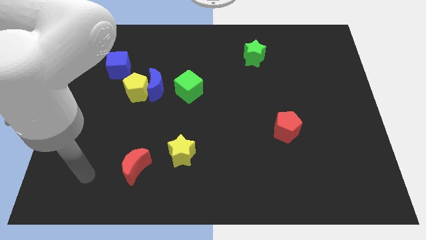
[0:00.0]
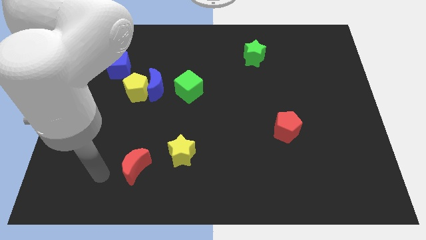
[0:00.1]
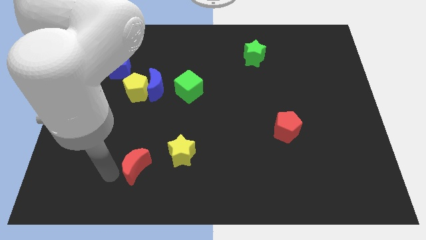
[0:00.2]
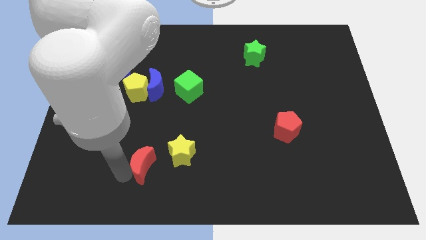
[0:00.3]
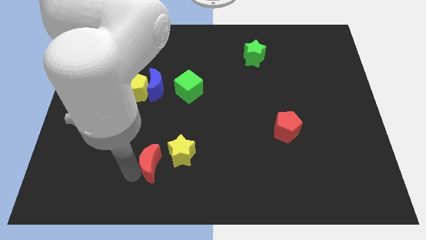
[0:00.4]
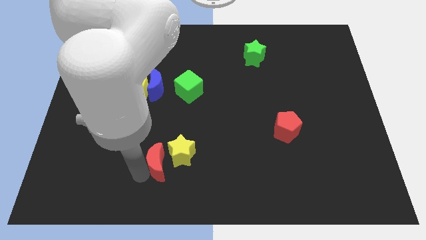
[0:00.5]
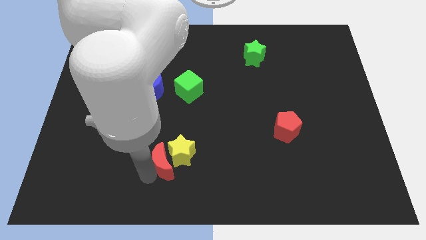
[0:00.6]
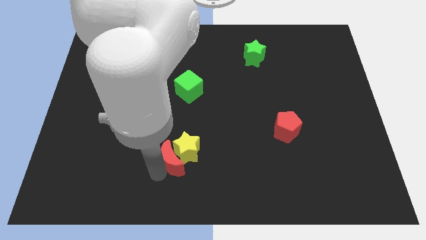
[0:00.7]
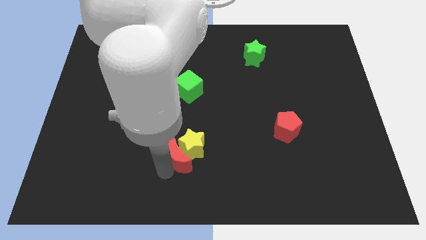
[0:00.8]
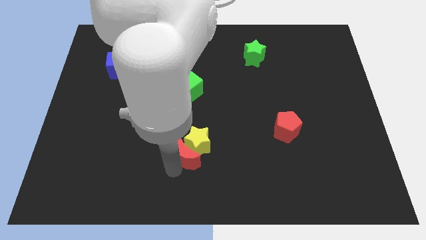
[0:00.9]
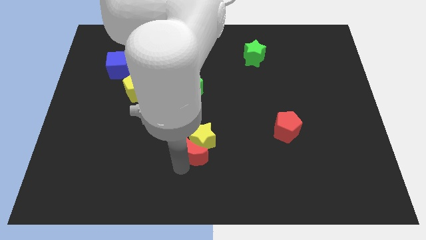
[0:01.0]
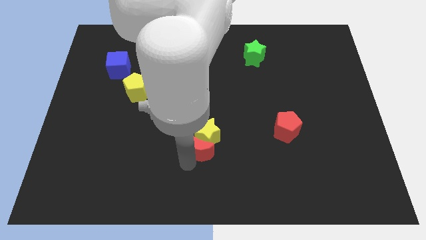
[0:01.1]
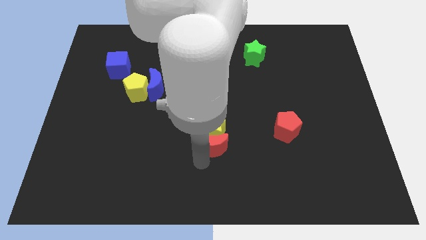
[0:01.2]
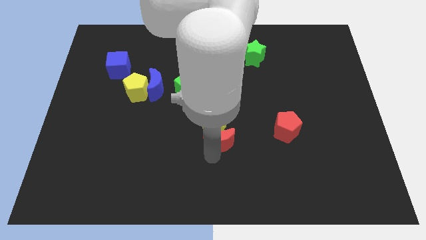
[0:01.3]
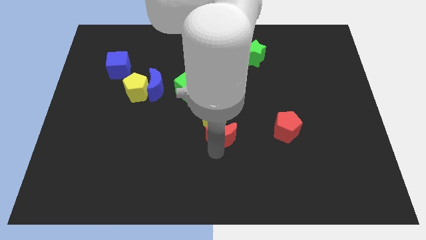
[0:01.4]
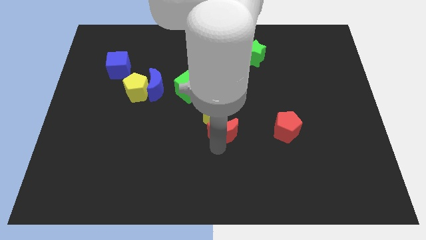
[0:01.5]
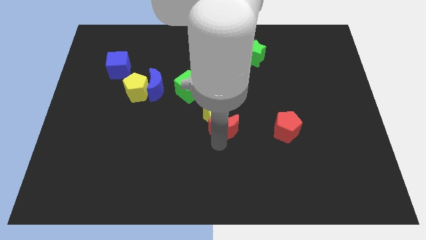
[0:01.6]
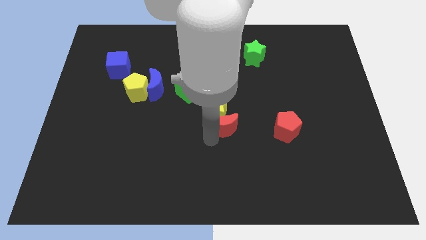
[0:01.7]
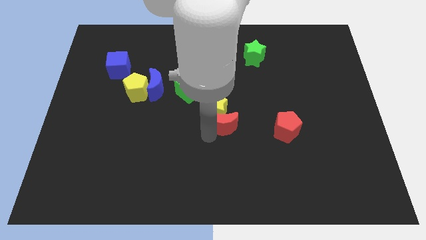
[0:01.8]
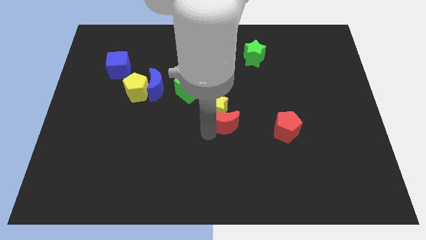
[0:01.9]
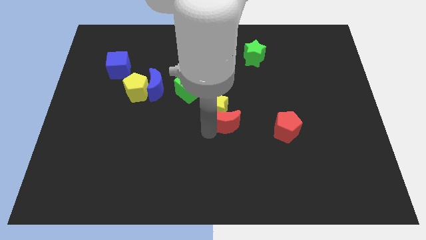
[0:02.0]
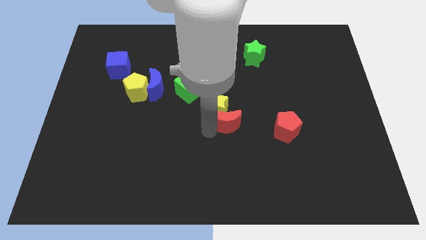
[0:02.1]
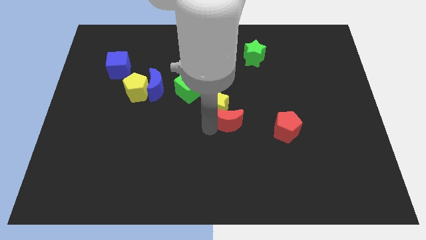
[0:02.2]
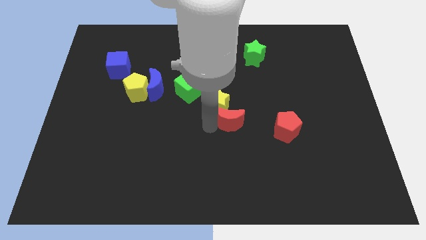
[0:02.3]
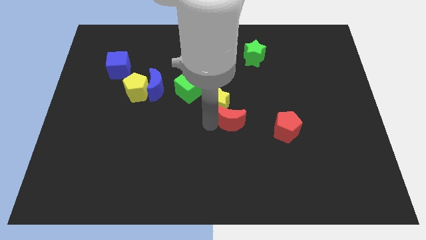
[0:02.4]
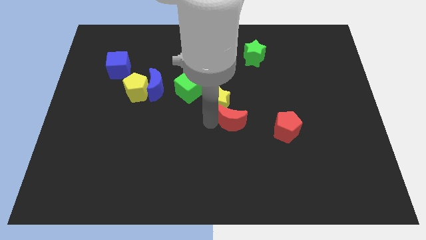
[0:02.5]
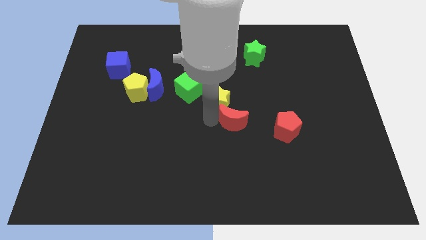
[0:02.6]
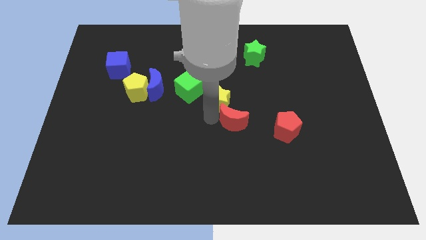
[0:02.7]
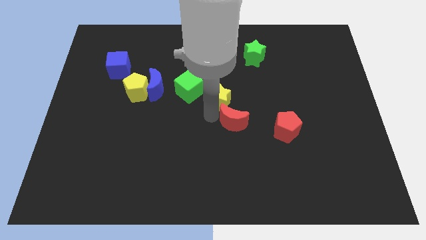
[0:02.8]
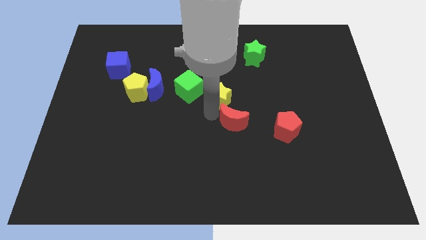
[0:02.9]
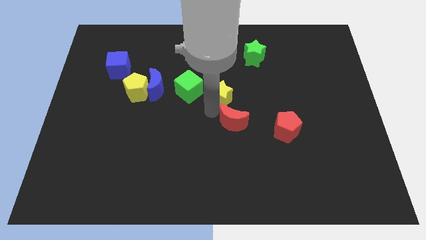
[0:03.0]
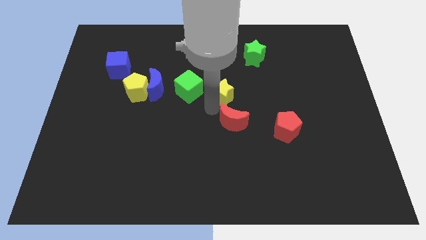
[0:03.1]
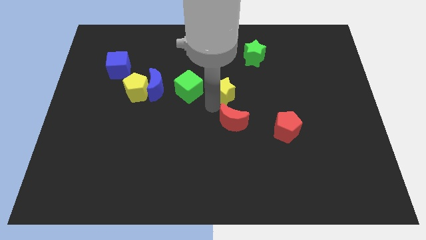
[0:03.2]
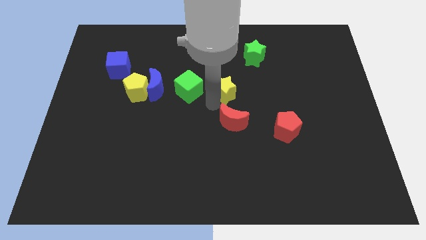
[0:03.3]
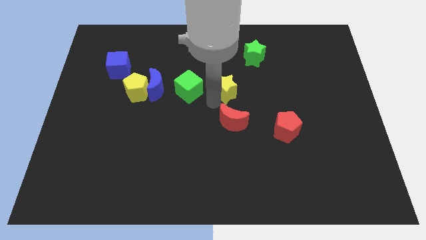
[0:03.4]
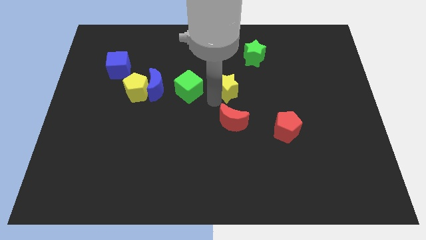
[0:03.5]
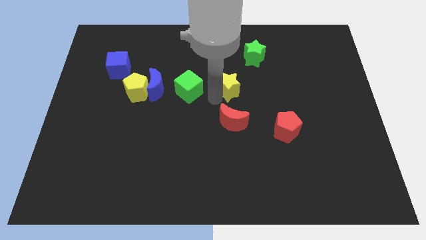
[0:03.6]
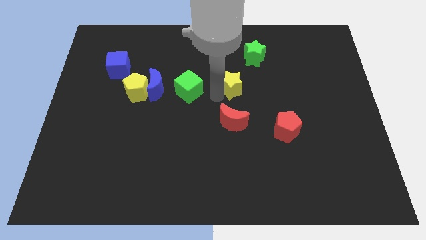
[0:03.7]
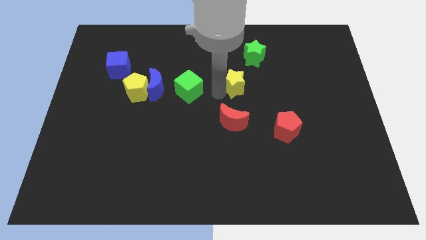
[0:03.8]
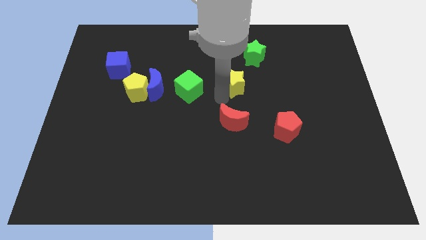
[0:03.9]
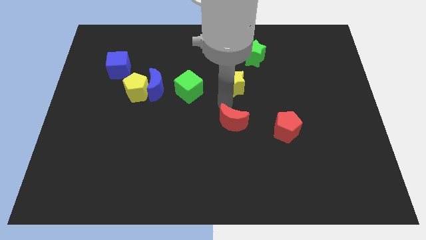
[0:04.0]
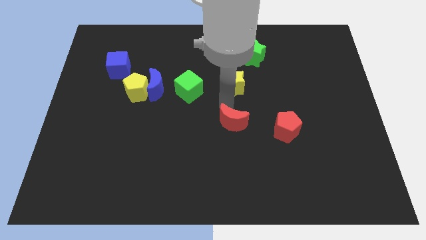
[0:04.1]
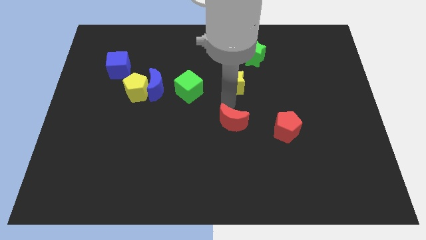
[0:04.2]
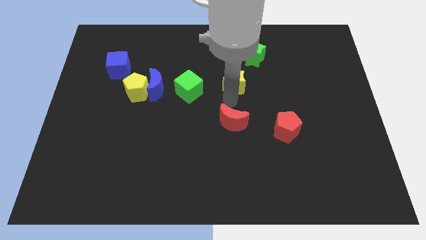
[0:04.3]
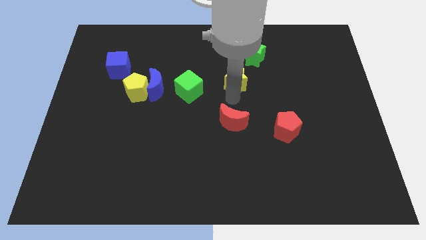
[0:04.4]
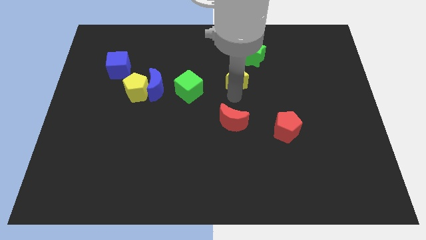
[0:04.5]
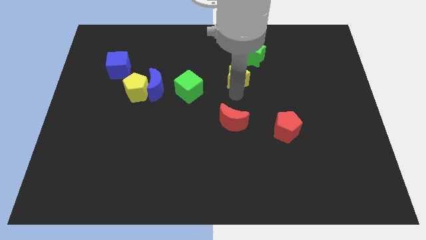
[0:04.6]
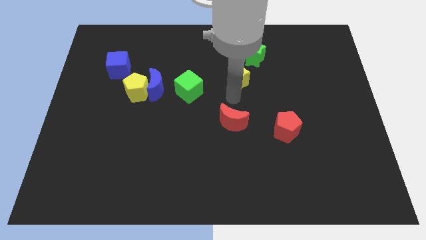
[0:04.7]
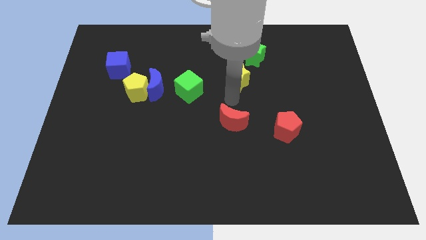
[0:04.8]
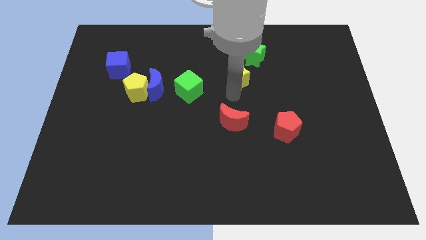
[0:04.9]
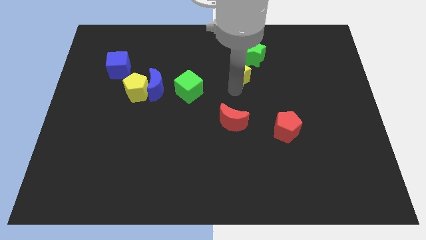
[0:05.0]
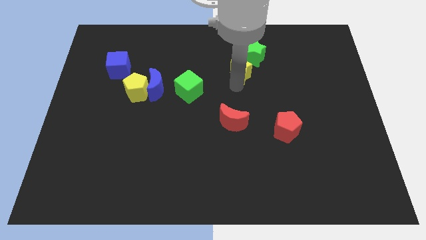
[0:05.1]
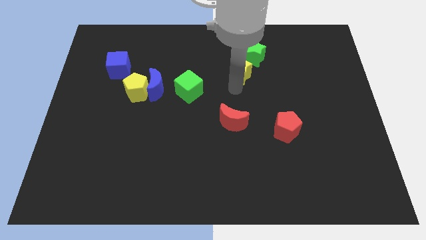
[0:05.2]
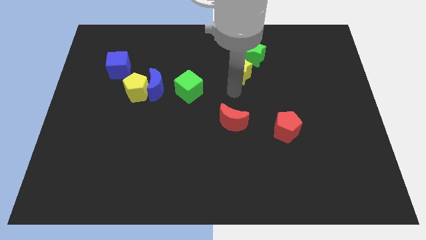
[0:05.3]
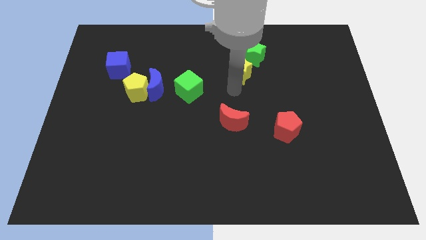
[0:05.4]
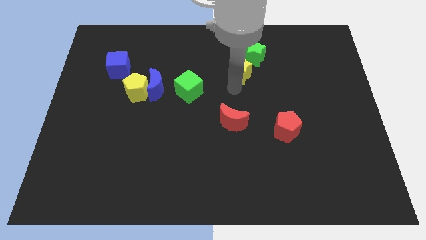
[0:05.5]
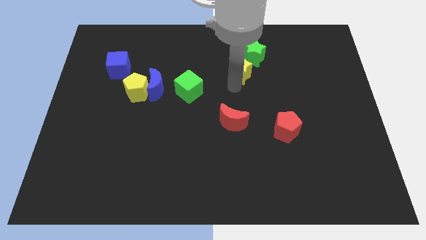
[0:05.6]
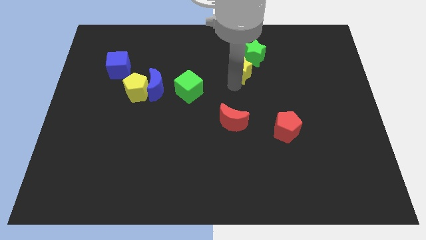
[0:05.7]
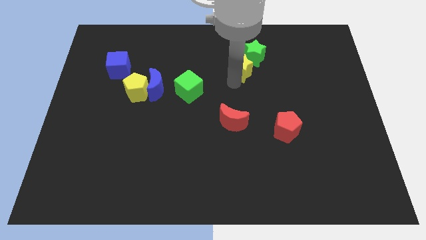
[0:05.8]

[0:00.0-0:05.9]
push the yellow star to the green star

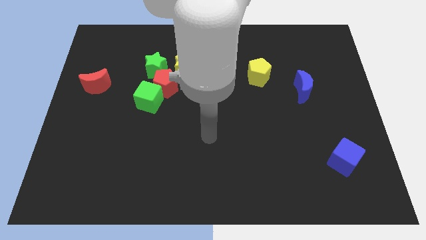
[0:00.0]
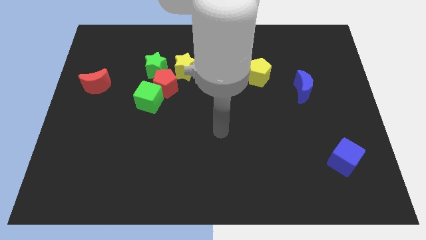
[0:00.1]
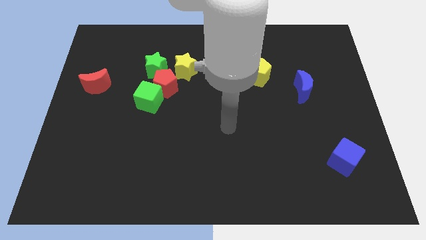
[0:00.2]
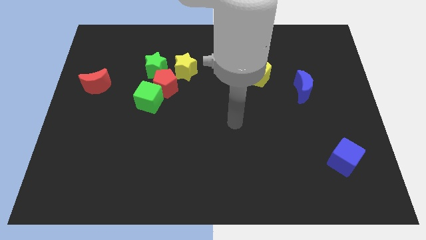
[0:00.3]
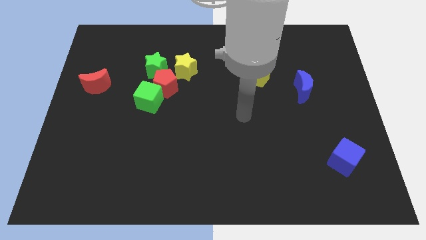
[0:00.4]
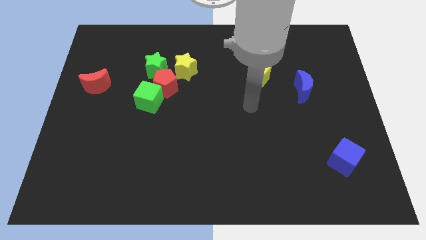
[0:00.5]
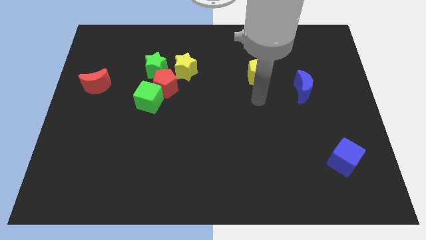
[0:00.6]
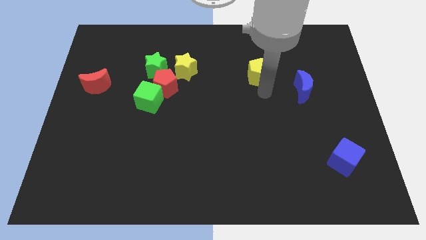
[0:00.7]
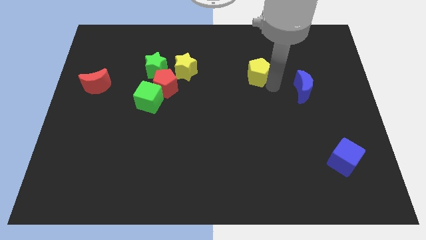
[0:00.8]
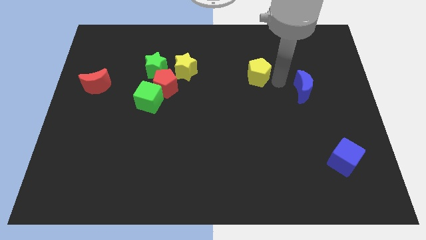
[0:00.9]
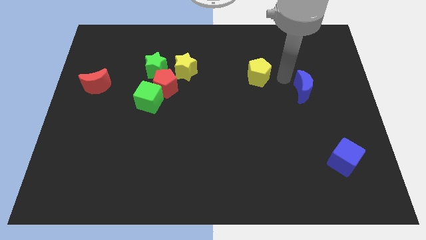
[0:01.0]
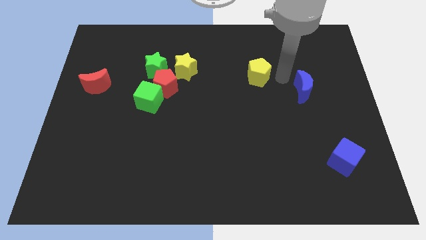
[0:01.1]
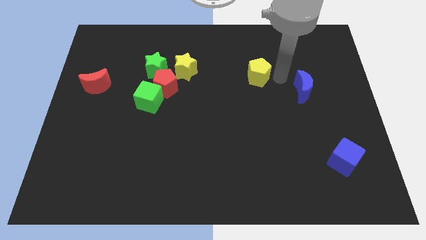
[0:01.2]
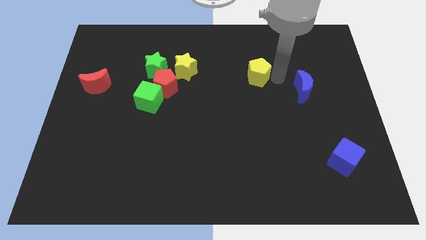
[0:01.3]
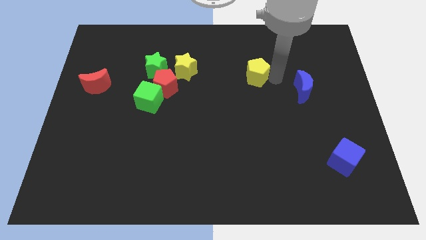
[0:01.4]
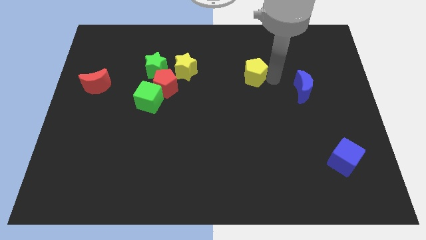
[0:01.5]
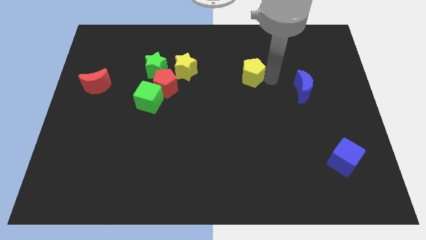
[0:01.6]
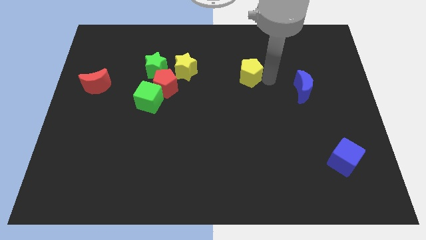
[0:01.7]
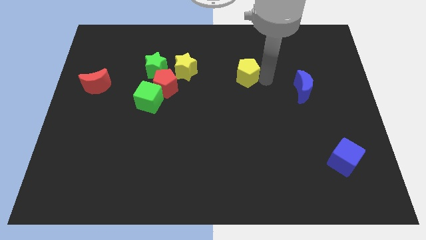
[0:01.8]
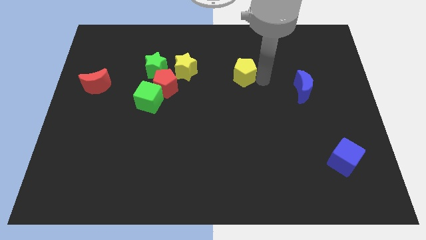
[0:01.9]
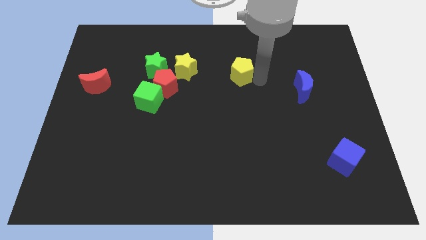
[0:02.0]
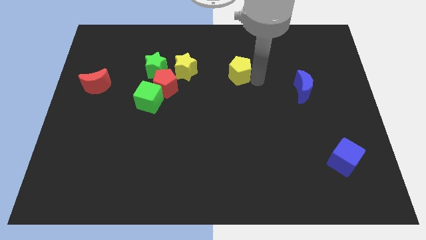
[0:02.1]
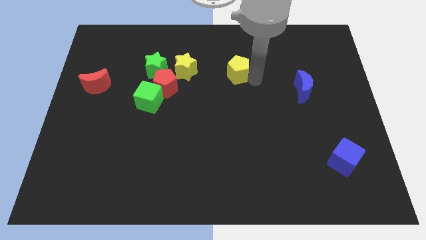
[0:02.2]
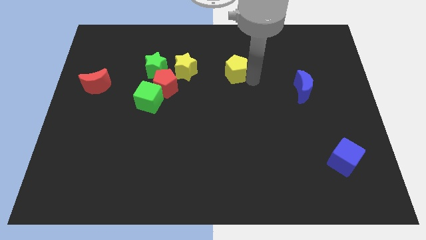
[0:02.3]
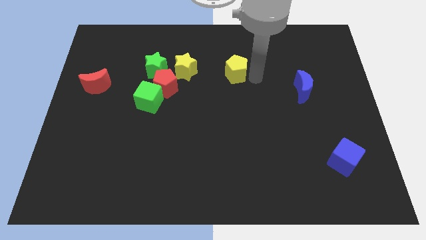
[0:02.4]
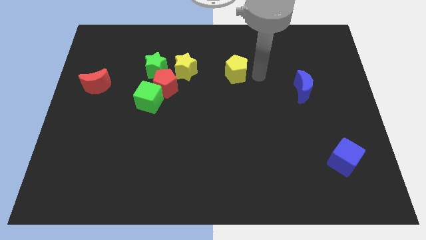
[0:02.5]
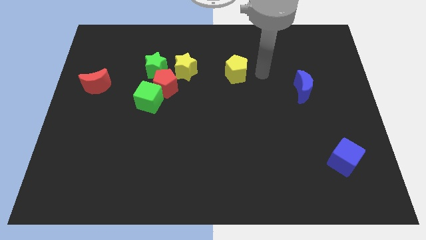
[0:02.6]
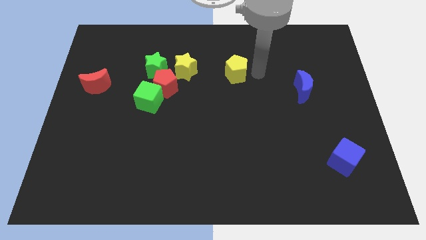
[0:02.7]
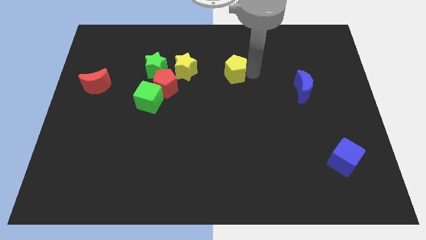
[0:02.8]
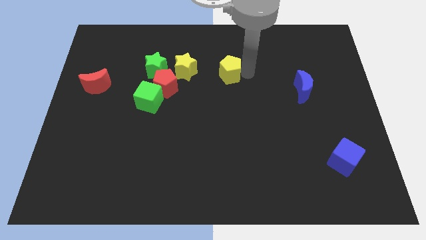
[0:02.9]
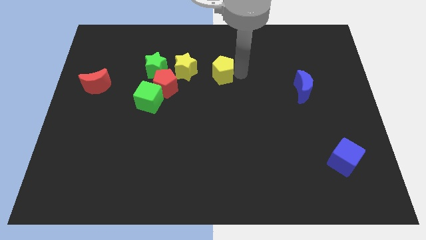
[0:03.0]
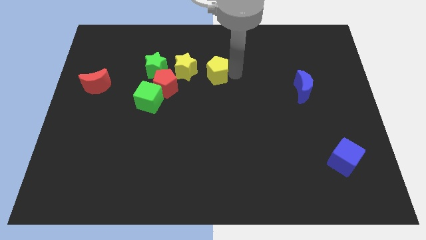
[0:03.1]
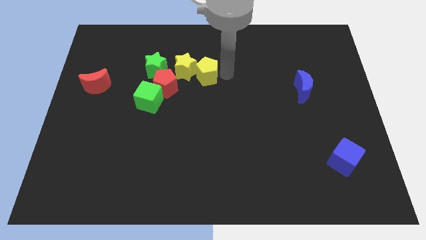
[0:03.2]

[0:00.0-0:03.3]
slide the yellow pentagon to the yellow star
